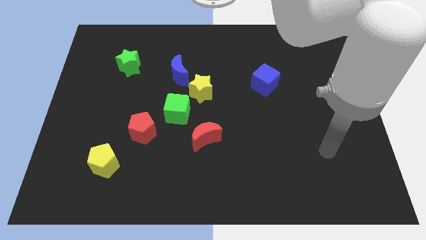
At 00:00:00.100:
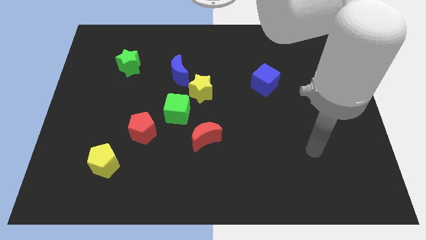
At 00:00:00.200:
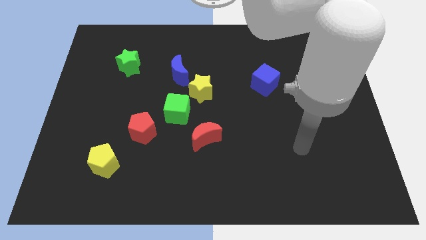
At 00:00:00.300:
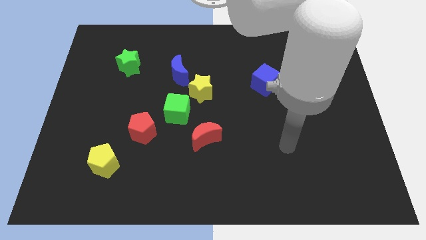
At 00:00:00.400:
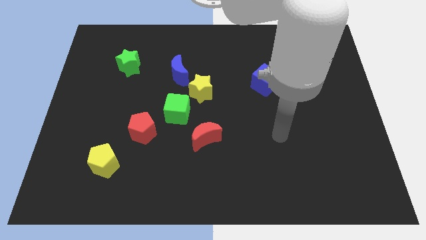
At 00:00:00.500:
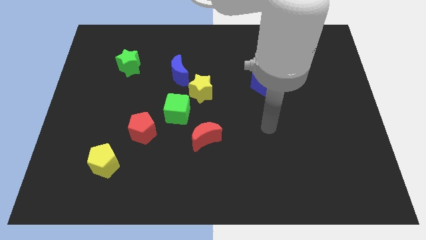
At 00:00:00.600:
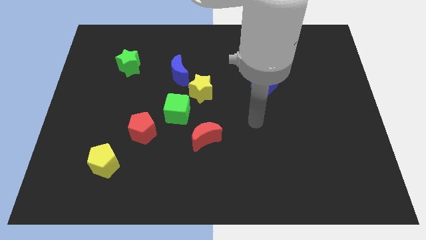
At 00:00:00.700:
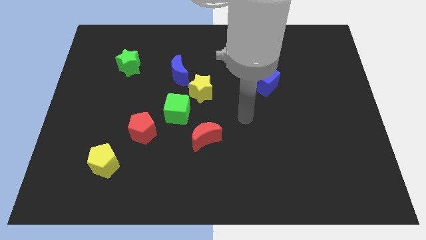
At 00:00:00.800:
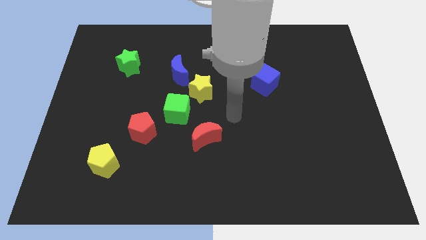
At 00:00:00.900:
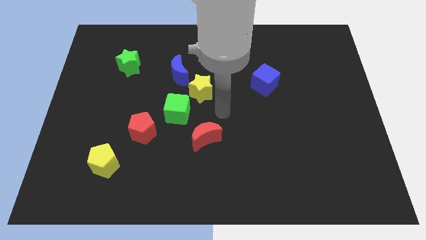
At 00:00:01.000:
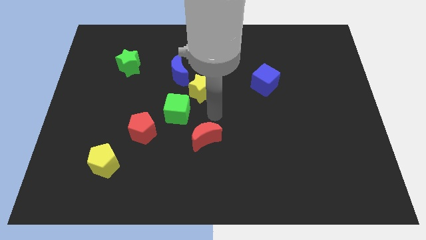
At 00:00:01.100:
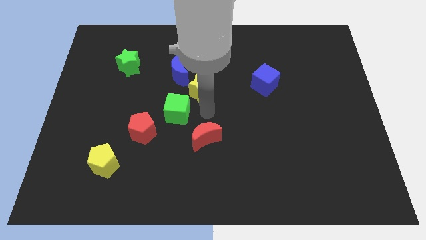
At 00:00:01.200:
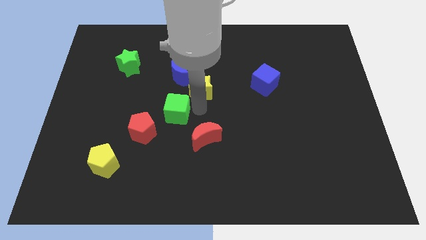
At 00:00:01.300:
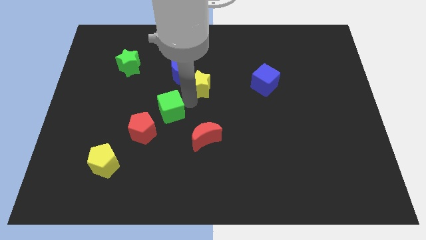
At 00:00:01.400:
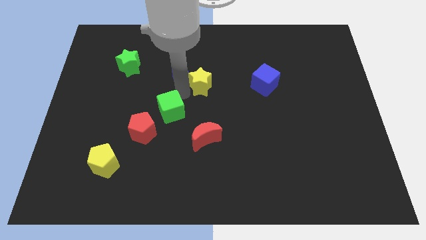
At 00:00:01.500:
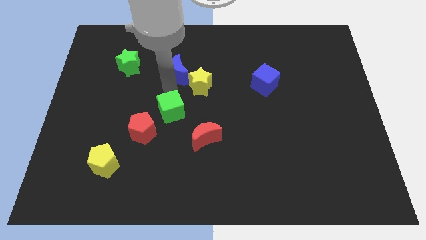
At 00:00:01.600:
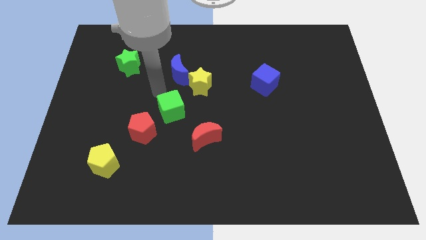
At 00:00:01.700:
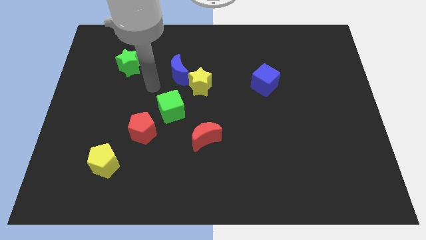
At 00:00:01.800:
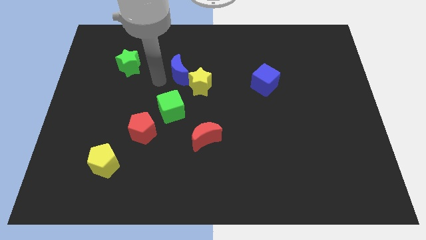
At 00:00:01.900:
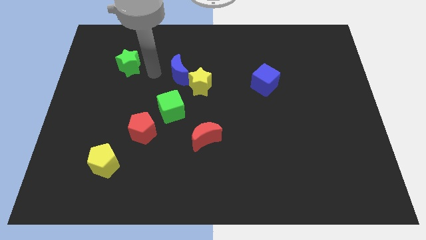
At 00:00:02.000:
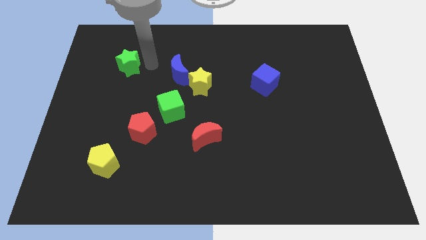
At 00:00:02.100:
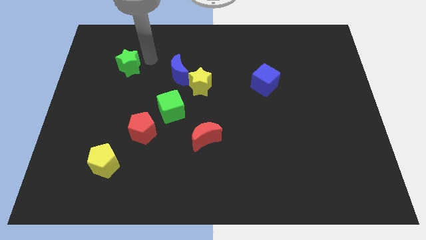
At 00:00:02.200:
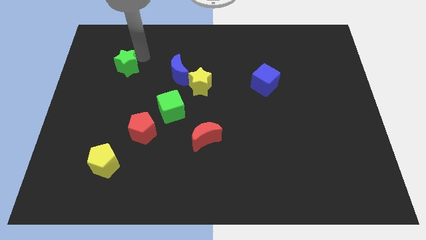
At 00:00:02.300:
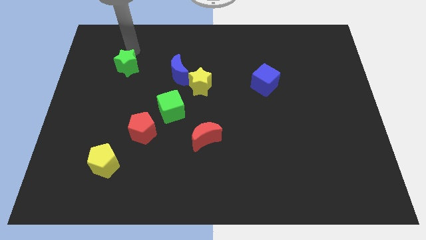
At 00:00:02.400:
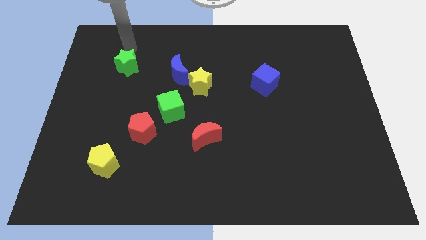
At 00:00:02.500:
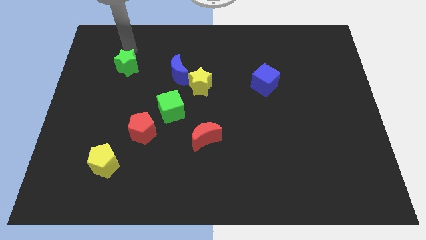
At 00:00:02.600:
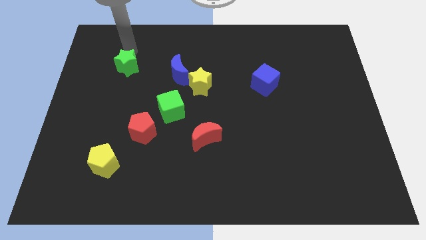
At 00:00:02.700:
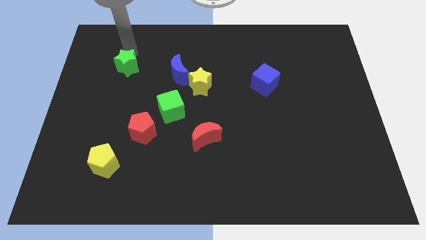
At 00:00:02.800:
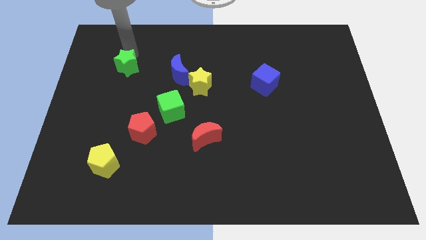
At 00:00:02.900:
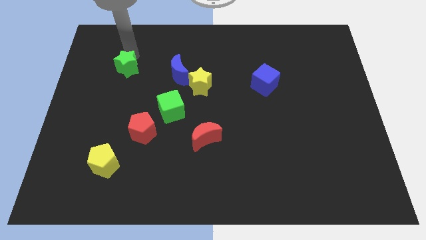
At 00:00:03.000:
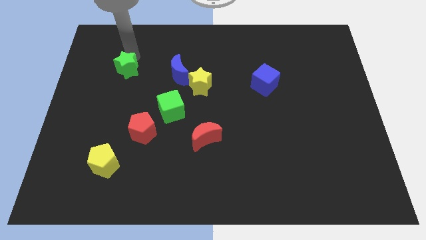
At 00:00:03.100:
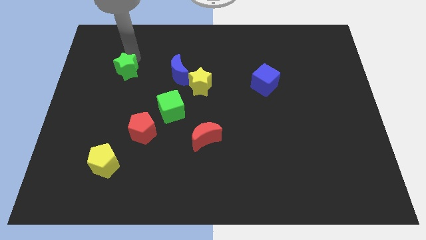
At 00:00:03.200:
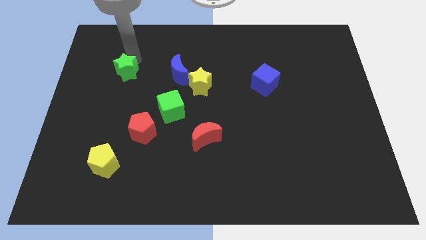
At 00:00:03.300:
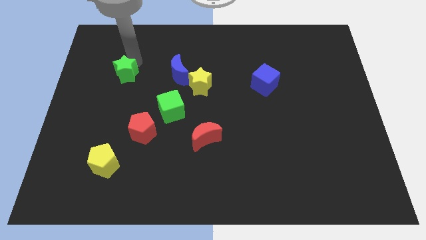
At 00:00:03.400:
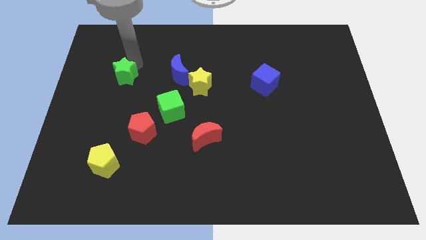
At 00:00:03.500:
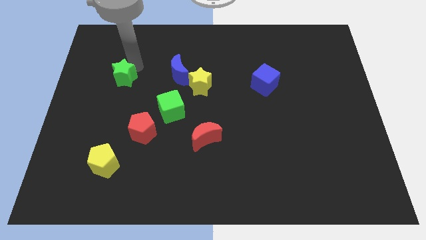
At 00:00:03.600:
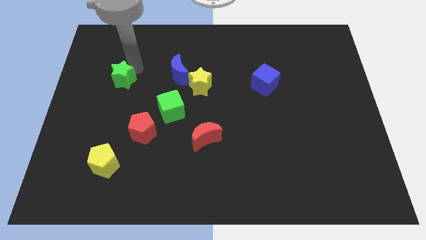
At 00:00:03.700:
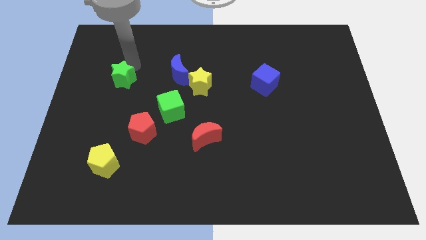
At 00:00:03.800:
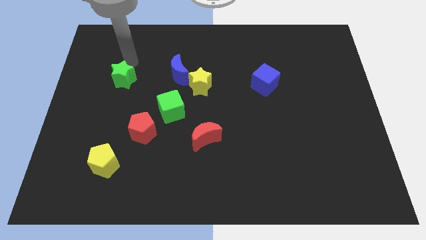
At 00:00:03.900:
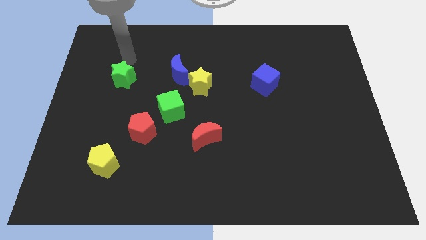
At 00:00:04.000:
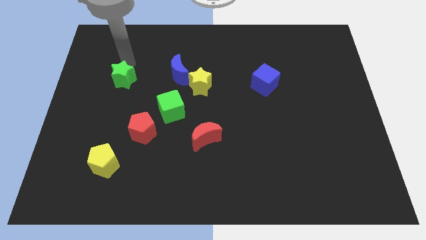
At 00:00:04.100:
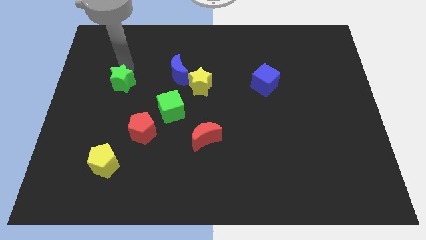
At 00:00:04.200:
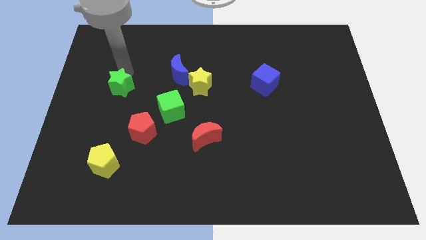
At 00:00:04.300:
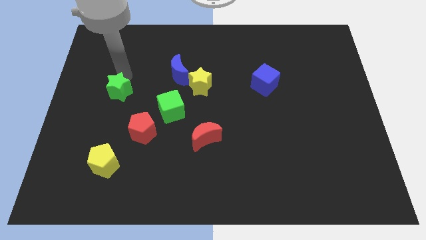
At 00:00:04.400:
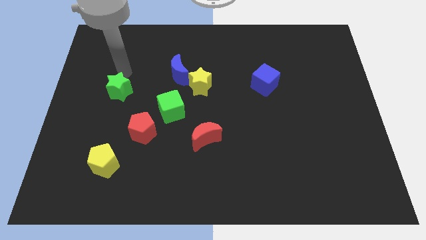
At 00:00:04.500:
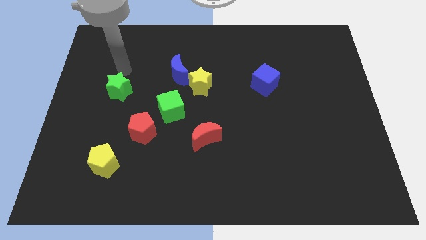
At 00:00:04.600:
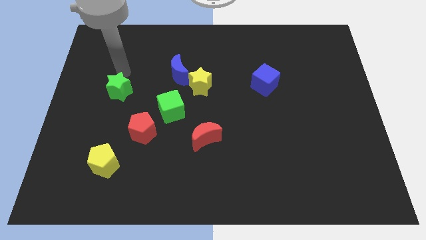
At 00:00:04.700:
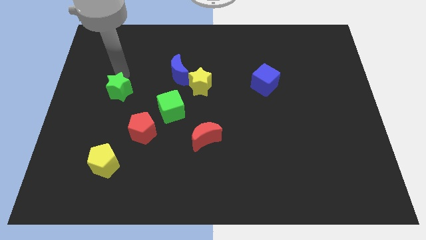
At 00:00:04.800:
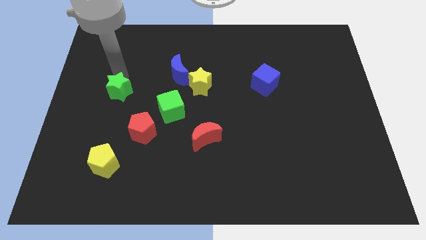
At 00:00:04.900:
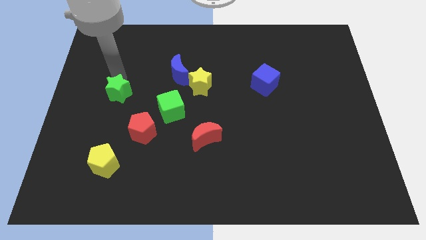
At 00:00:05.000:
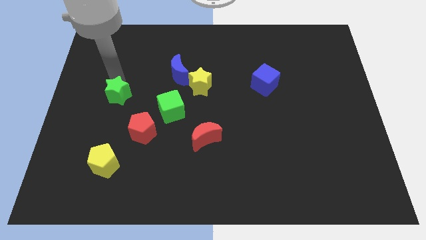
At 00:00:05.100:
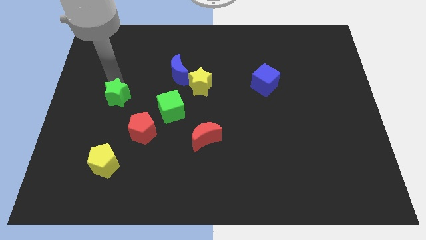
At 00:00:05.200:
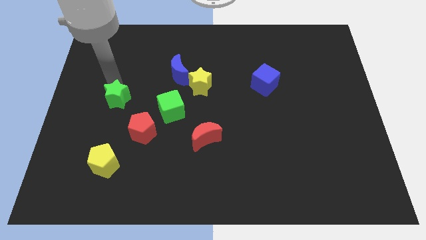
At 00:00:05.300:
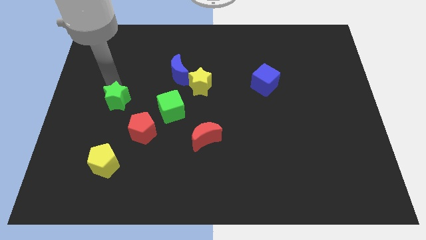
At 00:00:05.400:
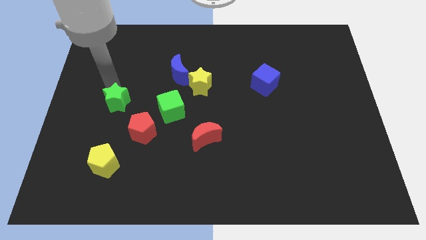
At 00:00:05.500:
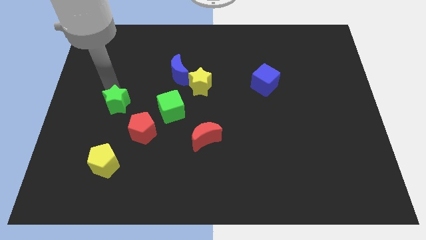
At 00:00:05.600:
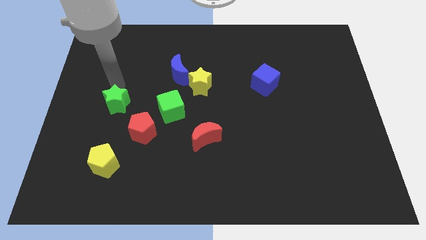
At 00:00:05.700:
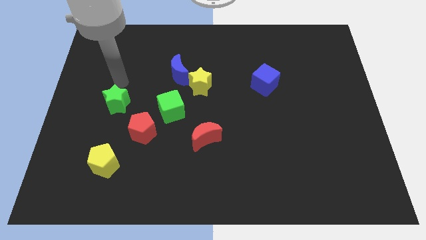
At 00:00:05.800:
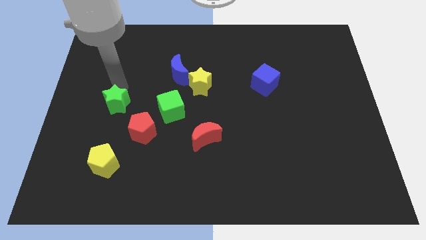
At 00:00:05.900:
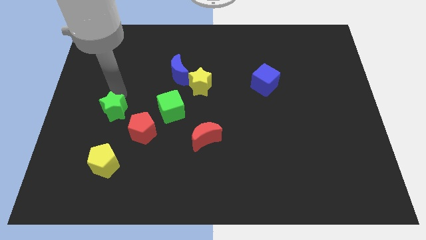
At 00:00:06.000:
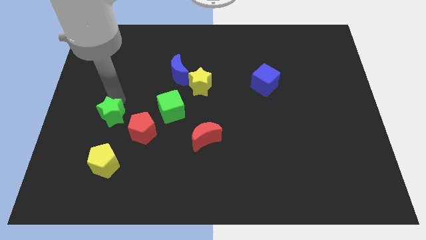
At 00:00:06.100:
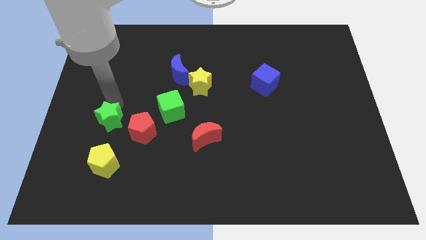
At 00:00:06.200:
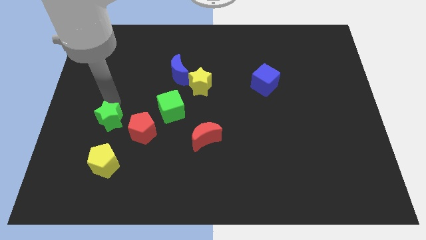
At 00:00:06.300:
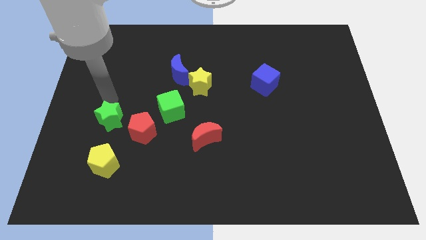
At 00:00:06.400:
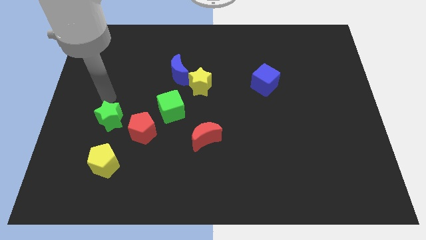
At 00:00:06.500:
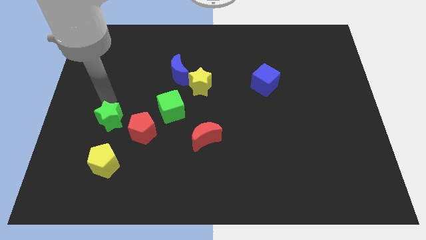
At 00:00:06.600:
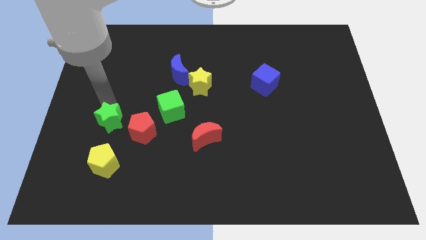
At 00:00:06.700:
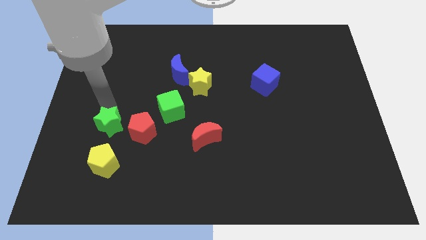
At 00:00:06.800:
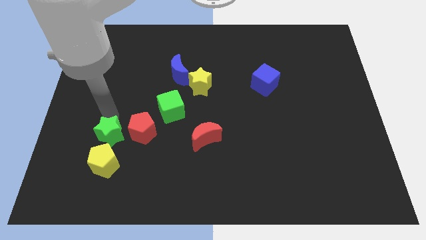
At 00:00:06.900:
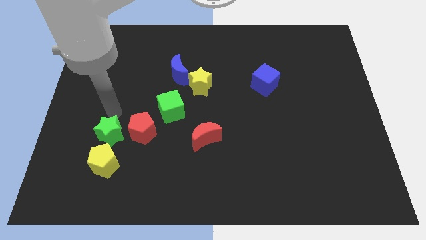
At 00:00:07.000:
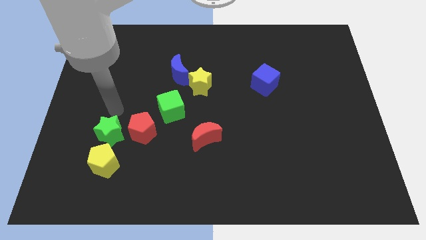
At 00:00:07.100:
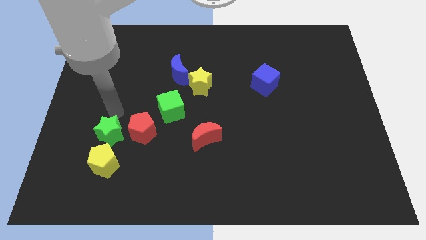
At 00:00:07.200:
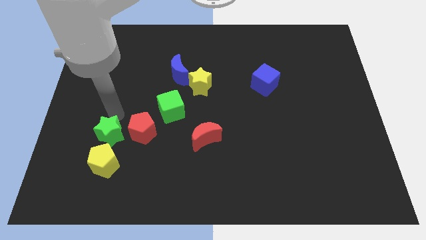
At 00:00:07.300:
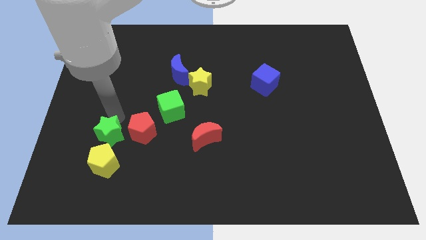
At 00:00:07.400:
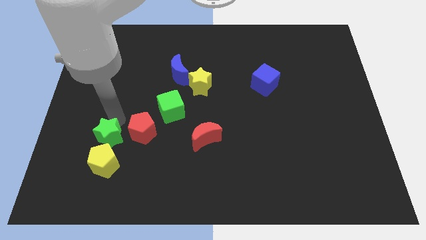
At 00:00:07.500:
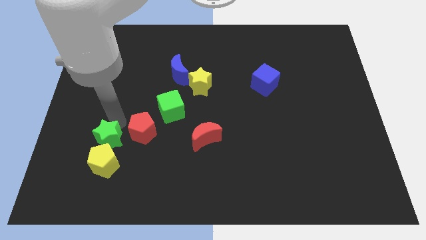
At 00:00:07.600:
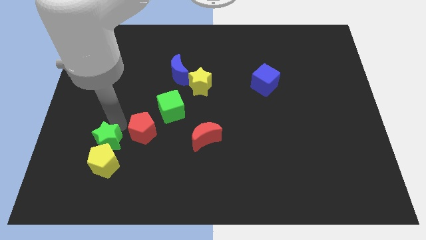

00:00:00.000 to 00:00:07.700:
move the green star to the yellow pentagon
